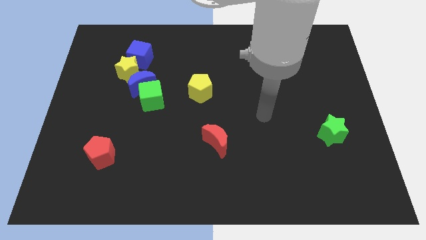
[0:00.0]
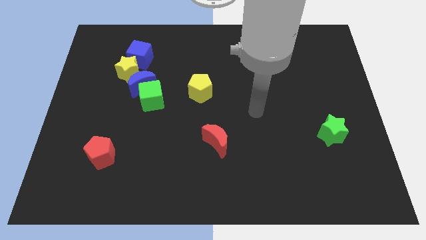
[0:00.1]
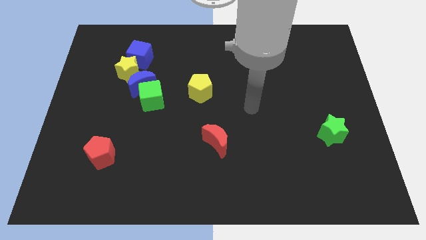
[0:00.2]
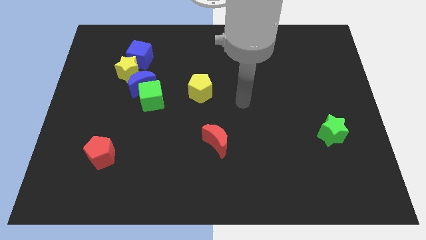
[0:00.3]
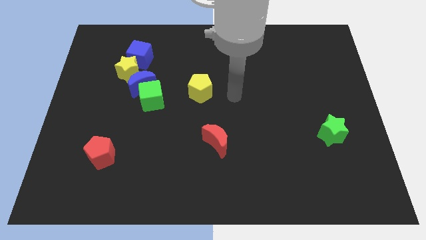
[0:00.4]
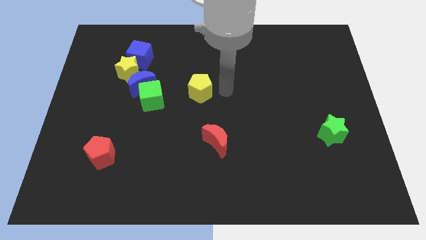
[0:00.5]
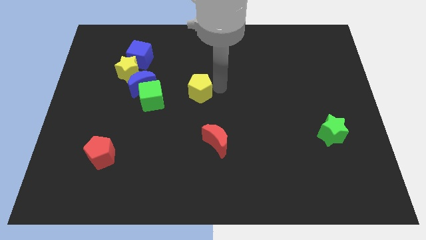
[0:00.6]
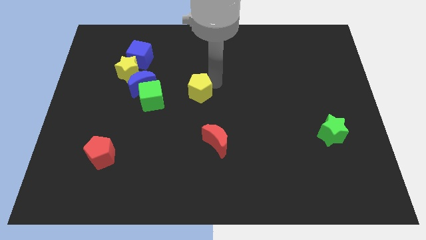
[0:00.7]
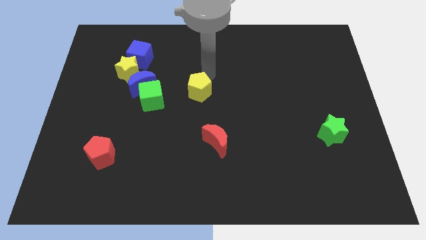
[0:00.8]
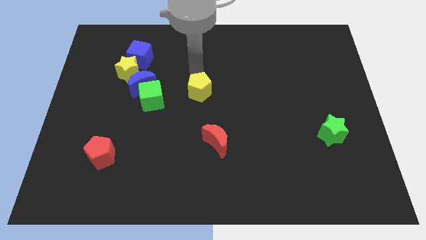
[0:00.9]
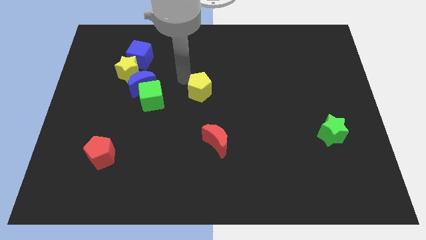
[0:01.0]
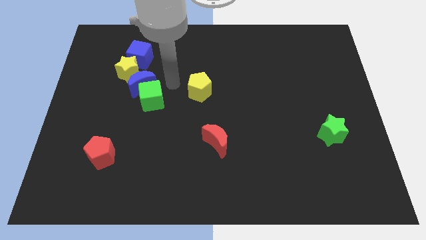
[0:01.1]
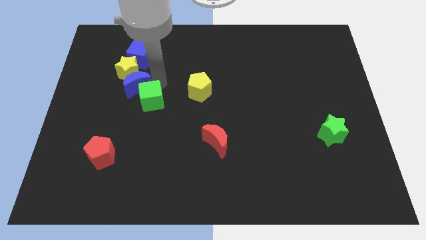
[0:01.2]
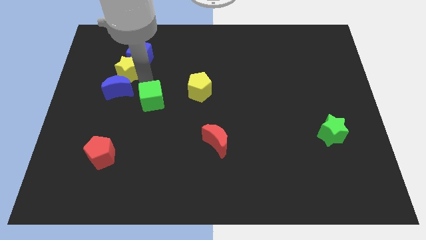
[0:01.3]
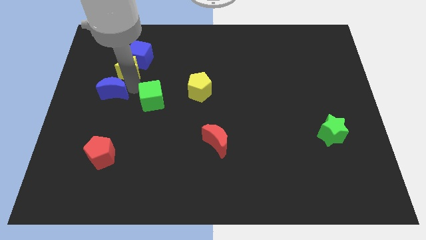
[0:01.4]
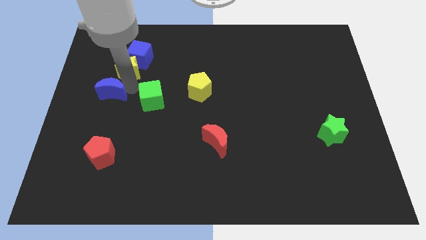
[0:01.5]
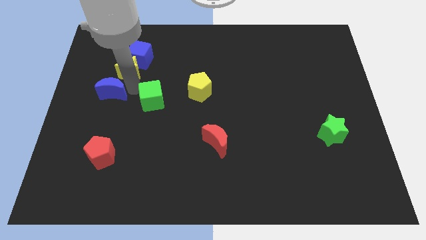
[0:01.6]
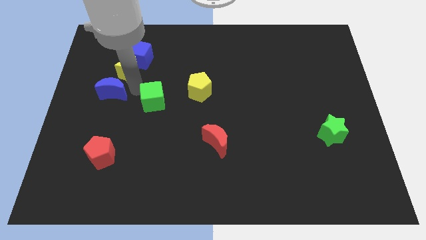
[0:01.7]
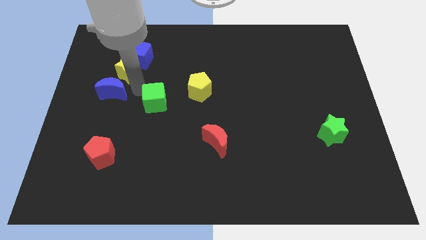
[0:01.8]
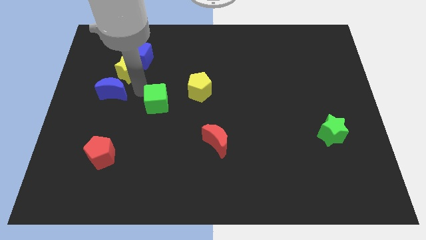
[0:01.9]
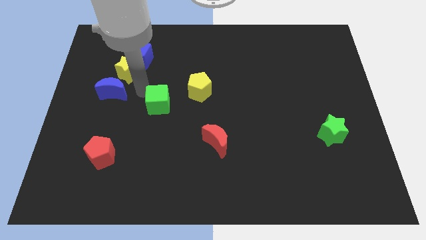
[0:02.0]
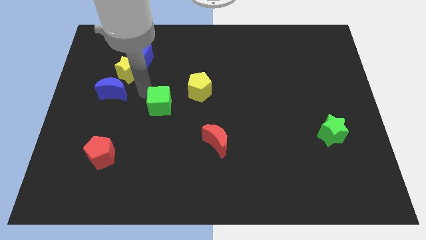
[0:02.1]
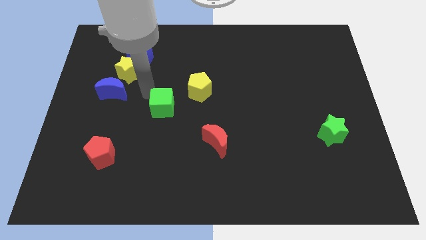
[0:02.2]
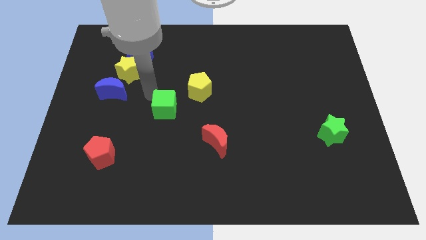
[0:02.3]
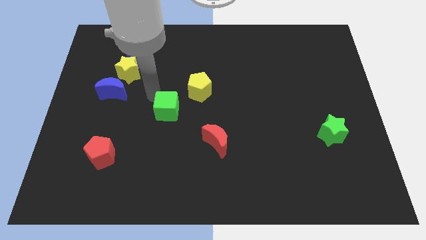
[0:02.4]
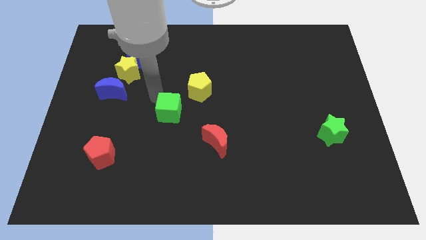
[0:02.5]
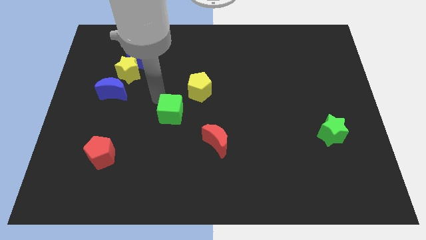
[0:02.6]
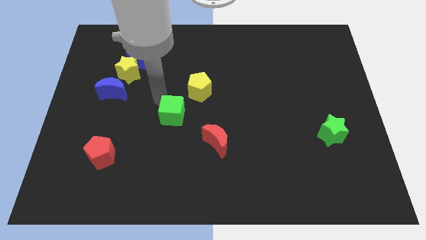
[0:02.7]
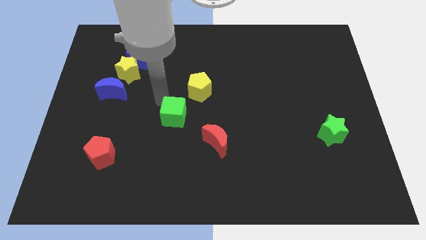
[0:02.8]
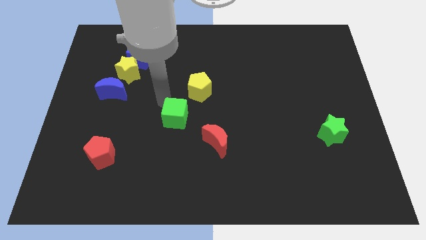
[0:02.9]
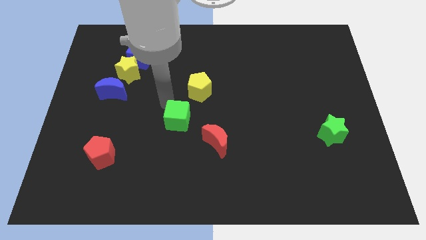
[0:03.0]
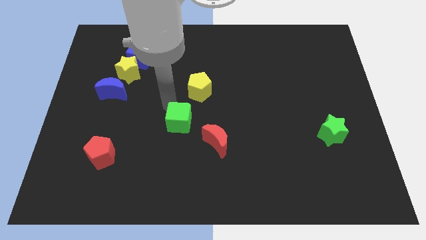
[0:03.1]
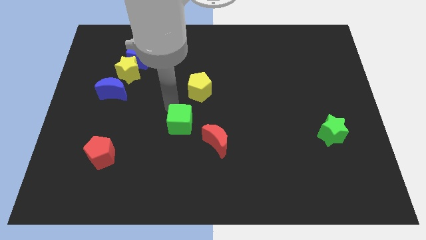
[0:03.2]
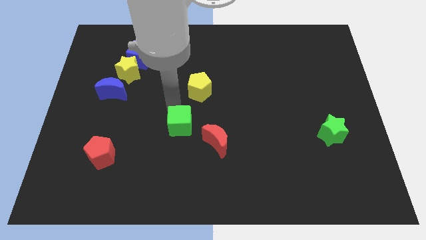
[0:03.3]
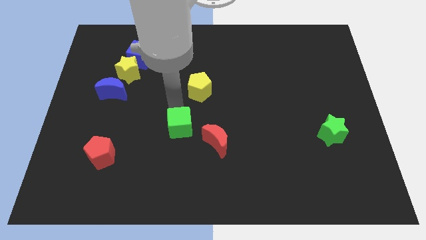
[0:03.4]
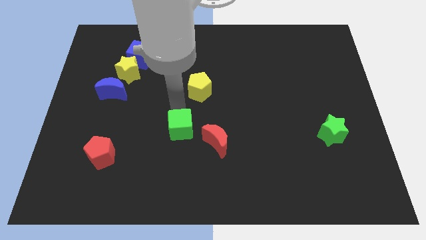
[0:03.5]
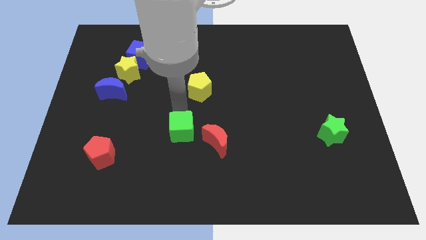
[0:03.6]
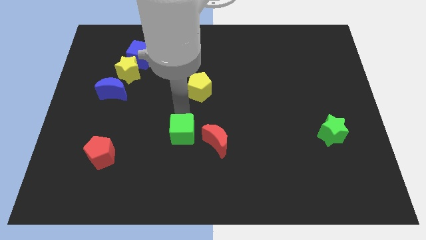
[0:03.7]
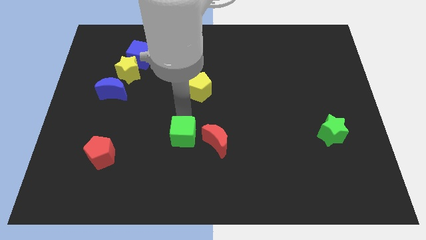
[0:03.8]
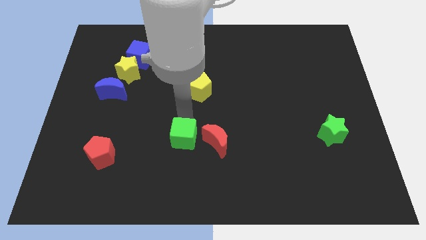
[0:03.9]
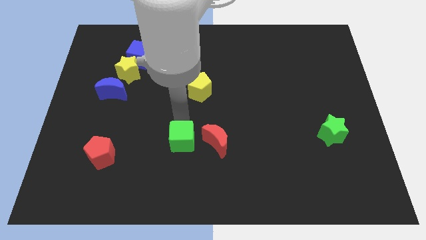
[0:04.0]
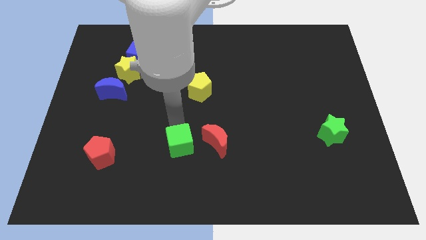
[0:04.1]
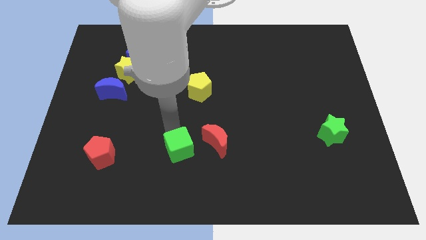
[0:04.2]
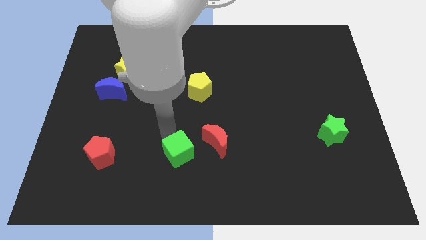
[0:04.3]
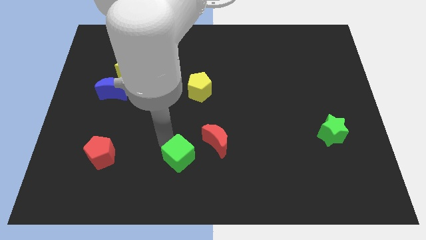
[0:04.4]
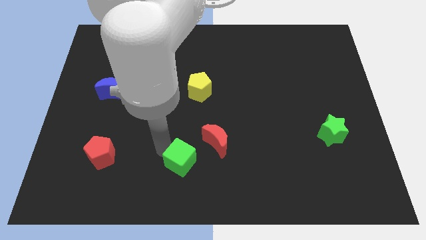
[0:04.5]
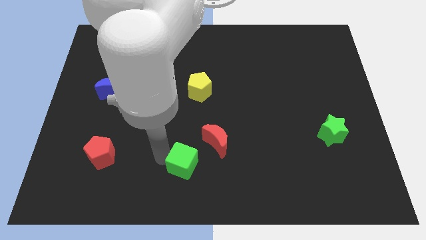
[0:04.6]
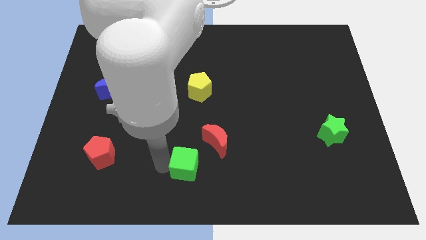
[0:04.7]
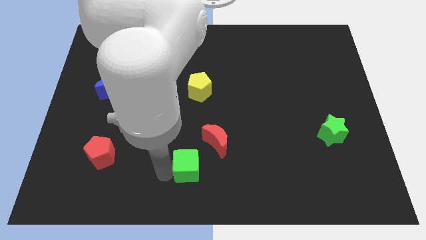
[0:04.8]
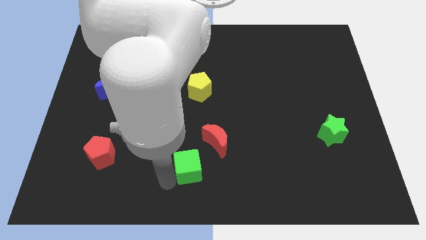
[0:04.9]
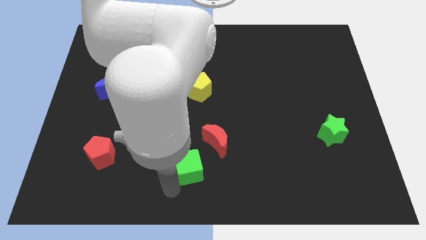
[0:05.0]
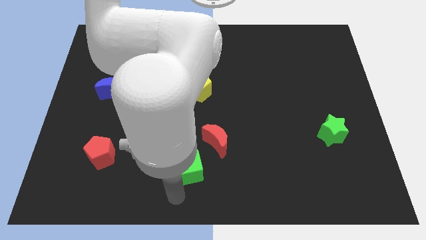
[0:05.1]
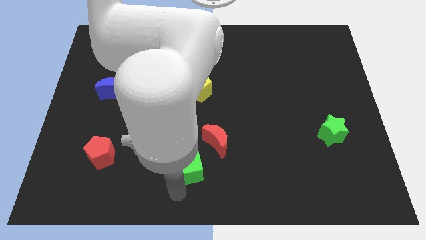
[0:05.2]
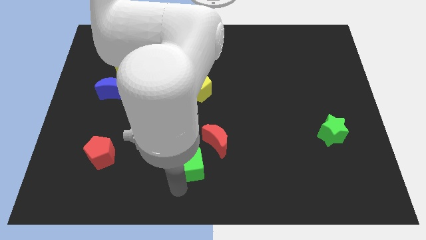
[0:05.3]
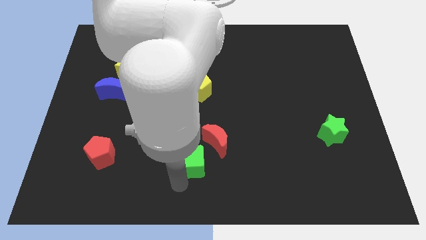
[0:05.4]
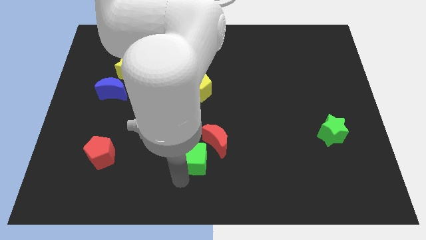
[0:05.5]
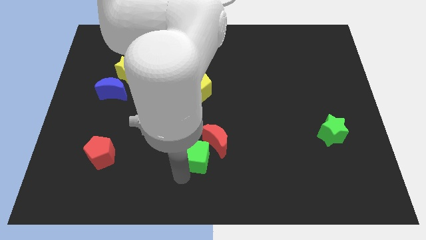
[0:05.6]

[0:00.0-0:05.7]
slide the green cube to the red moon

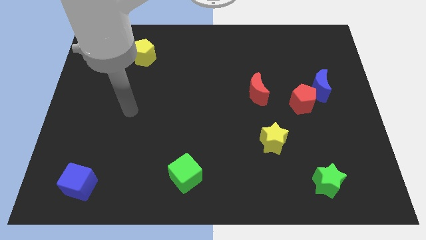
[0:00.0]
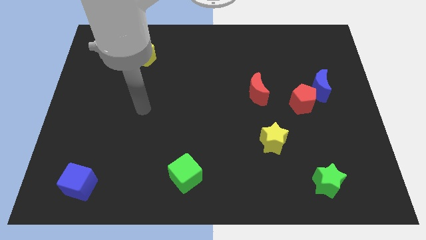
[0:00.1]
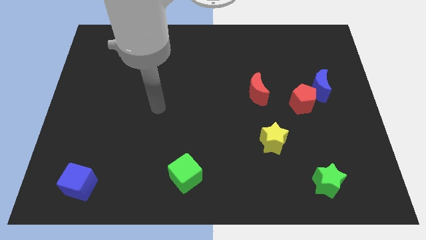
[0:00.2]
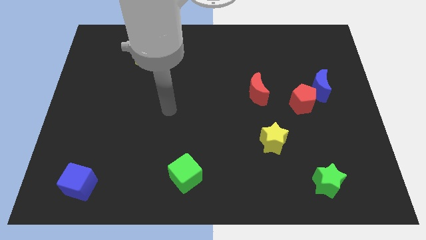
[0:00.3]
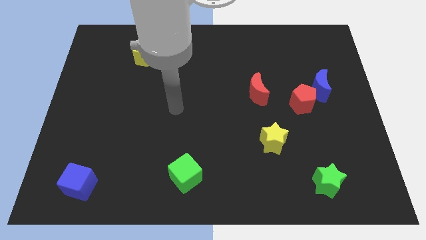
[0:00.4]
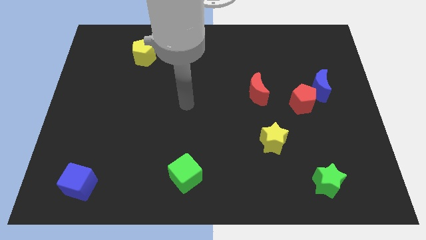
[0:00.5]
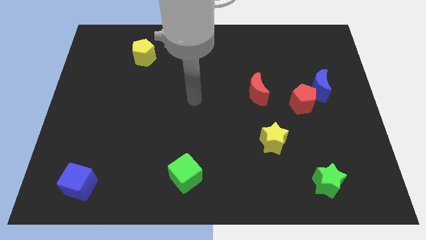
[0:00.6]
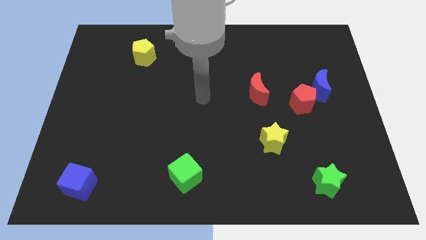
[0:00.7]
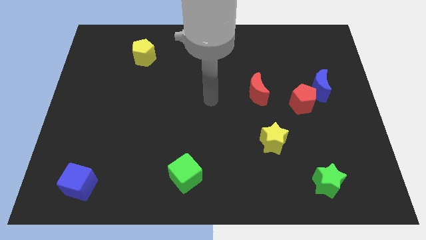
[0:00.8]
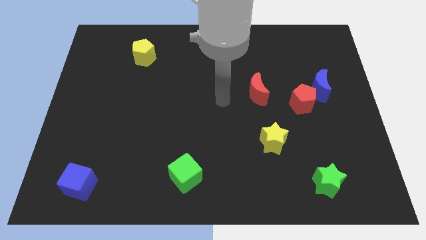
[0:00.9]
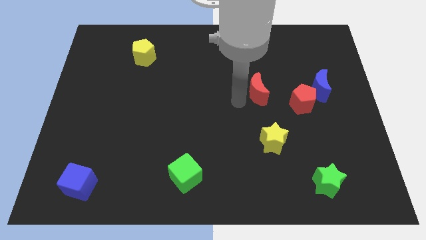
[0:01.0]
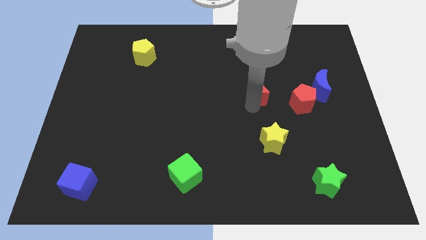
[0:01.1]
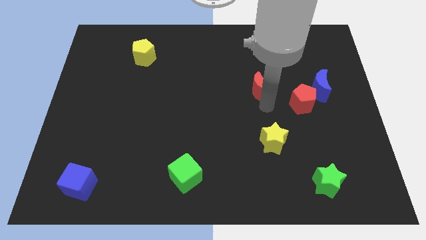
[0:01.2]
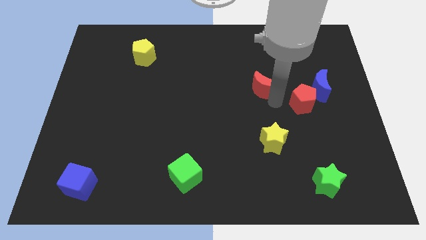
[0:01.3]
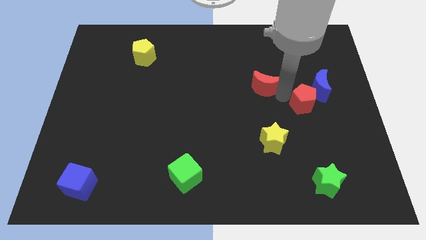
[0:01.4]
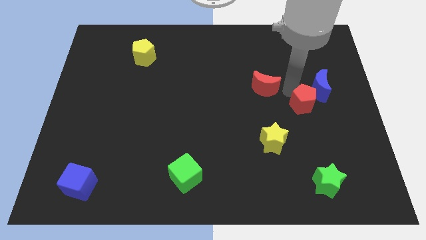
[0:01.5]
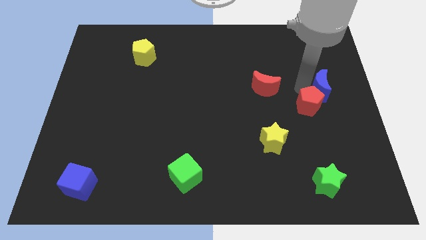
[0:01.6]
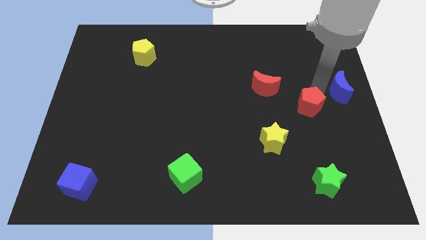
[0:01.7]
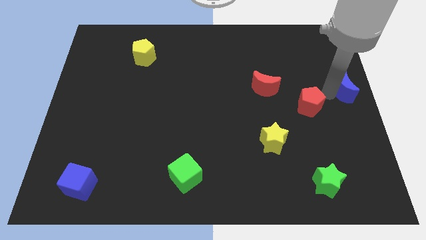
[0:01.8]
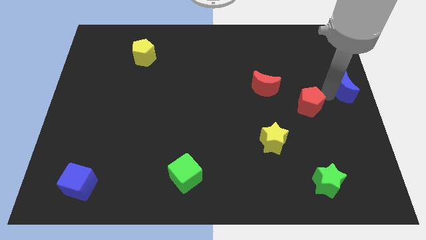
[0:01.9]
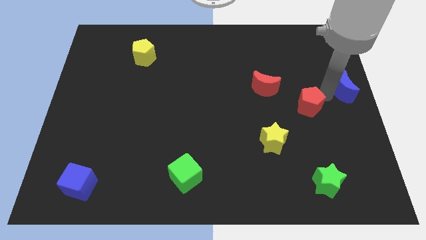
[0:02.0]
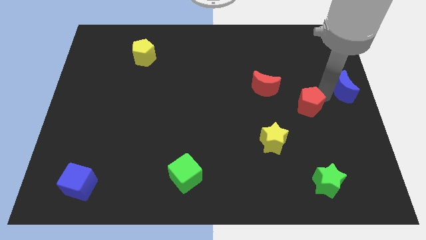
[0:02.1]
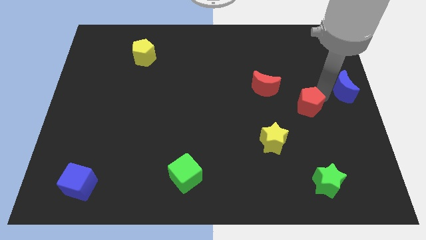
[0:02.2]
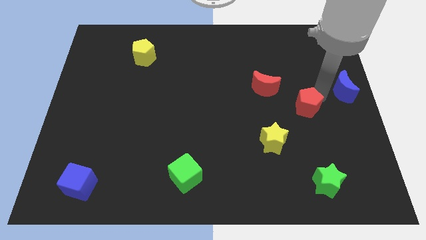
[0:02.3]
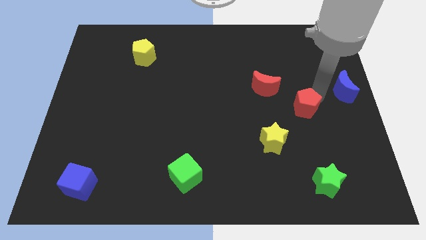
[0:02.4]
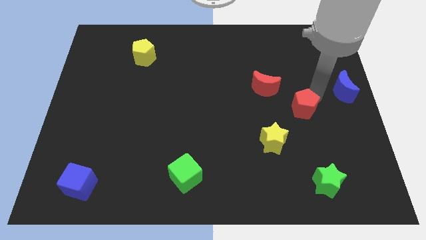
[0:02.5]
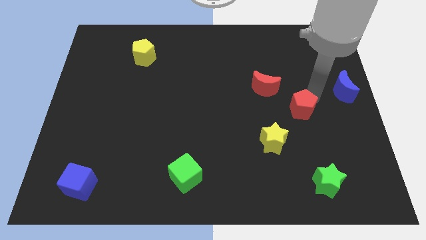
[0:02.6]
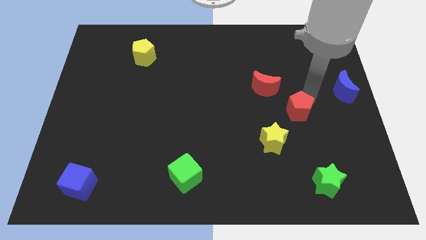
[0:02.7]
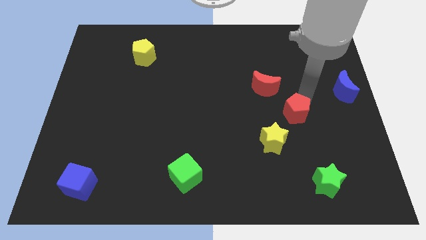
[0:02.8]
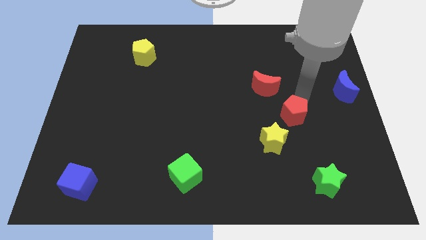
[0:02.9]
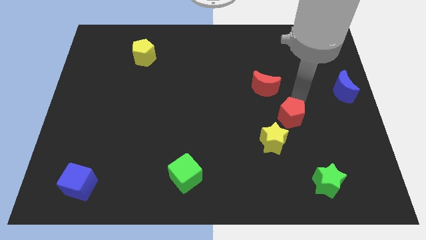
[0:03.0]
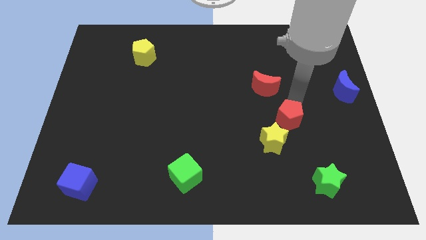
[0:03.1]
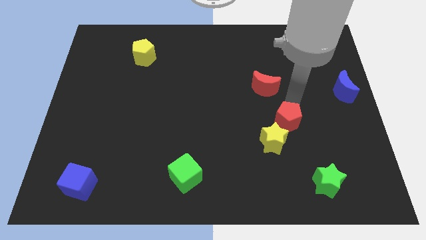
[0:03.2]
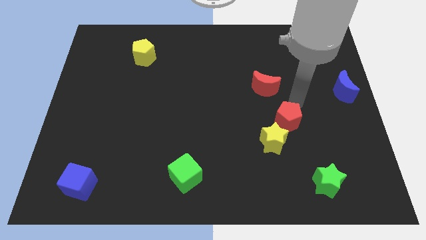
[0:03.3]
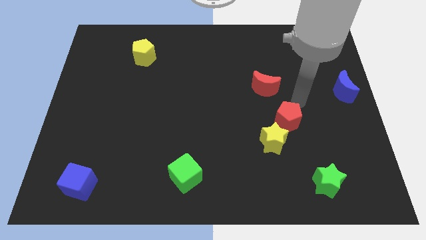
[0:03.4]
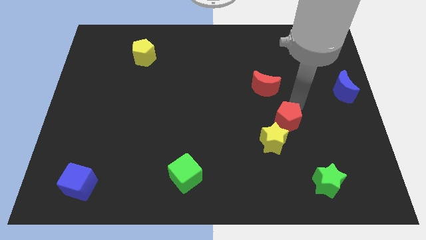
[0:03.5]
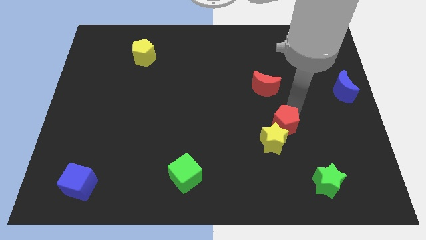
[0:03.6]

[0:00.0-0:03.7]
move the red pentagon to the yellow star
